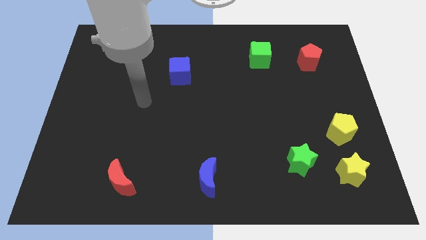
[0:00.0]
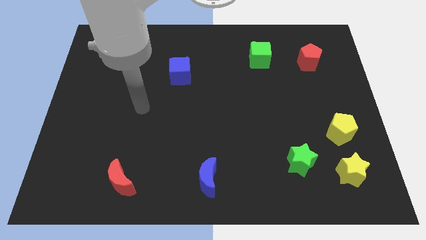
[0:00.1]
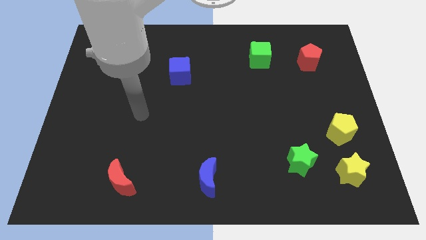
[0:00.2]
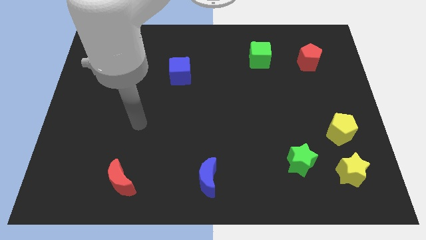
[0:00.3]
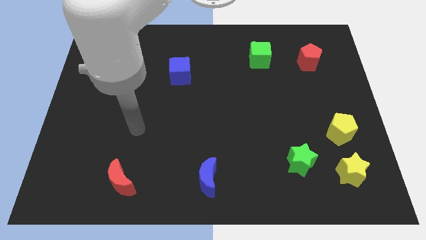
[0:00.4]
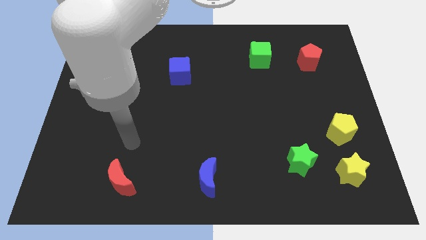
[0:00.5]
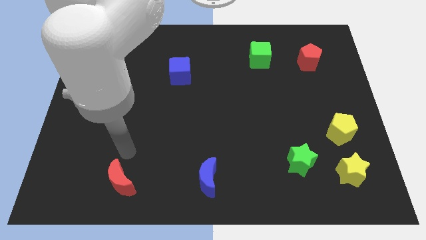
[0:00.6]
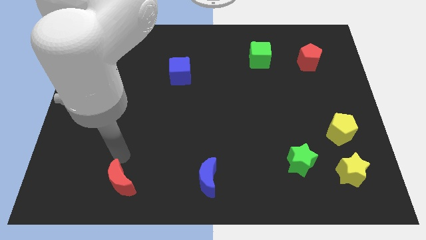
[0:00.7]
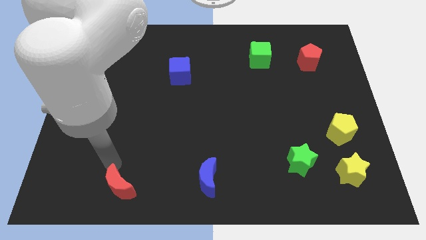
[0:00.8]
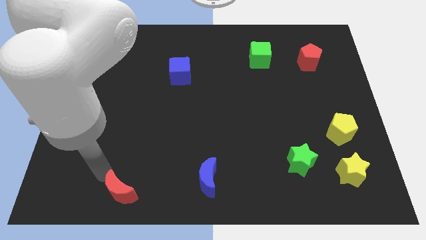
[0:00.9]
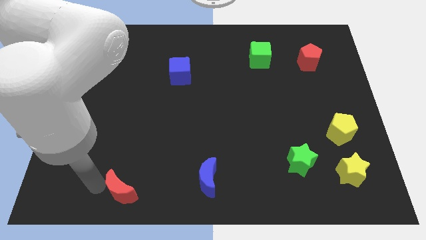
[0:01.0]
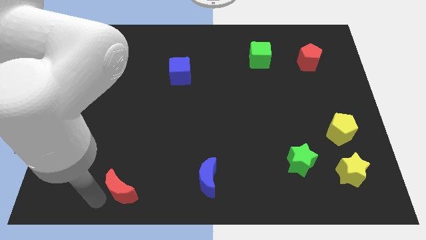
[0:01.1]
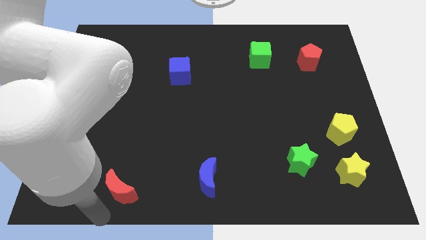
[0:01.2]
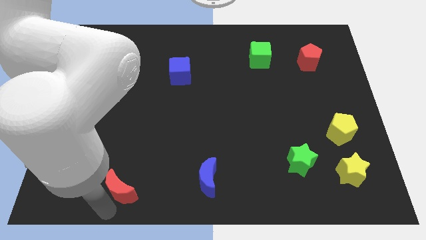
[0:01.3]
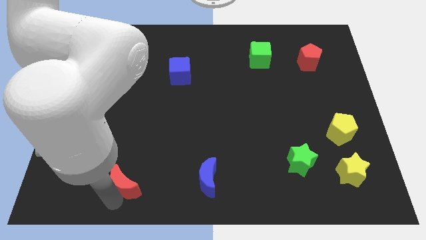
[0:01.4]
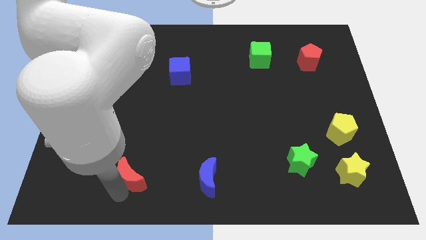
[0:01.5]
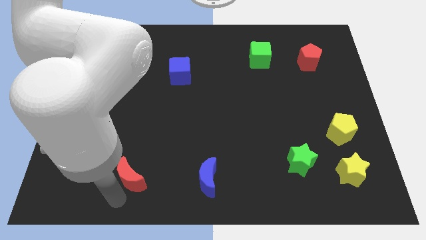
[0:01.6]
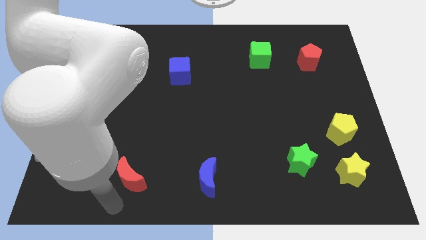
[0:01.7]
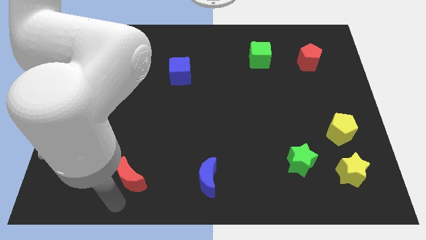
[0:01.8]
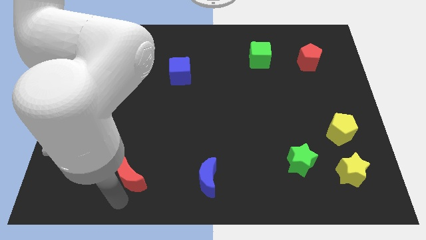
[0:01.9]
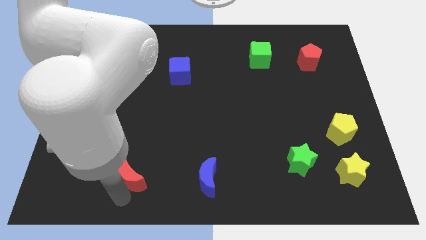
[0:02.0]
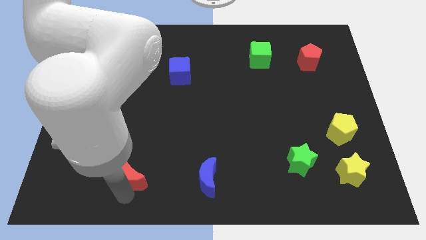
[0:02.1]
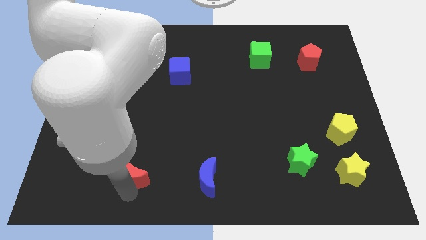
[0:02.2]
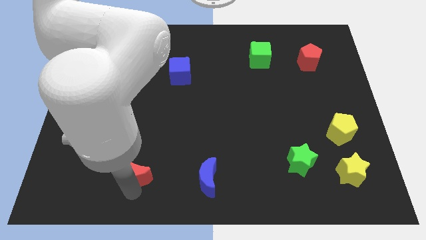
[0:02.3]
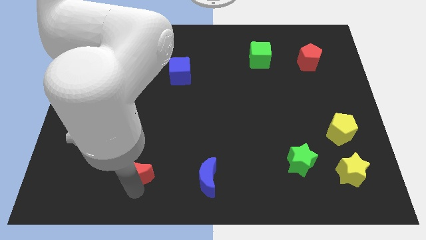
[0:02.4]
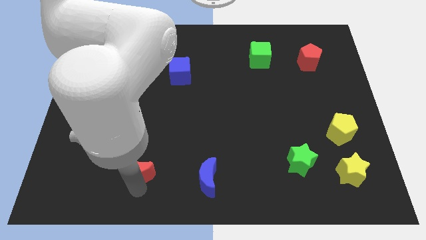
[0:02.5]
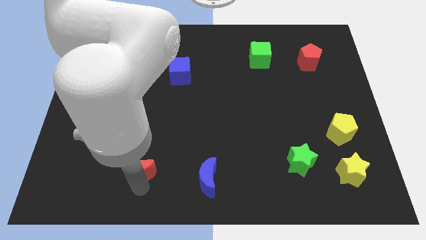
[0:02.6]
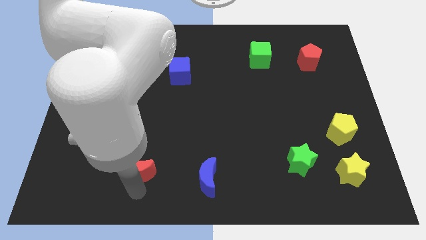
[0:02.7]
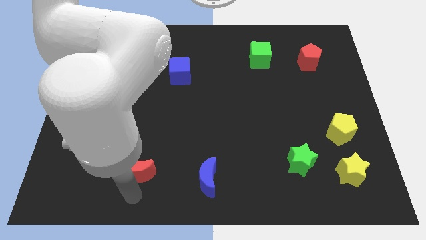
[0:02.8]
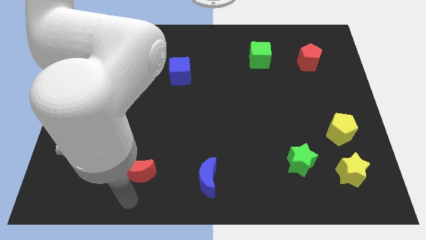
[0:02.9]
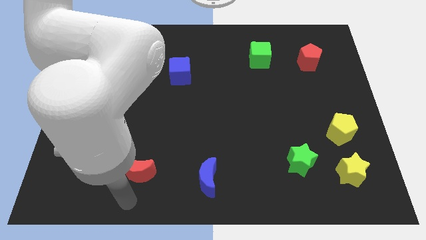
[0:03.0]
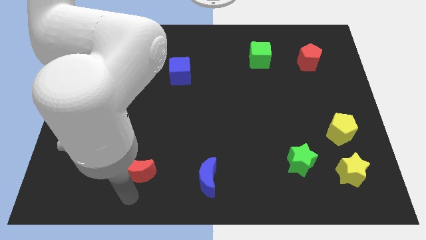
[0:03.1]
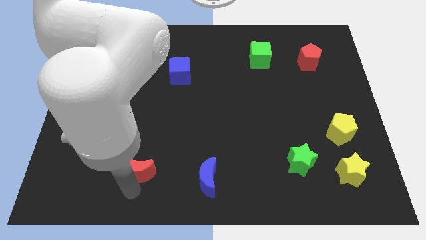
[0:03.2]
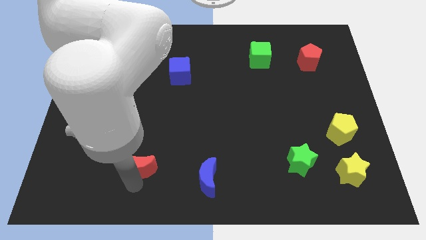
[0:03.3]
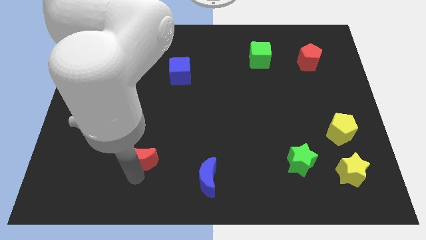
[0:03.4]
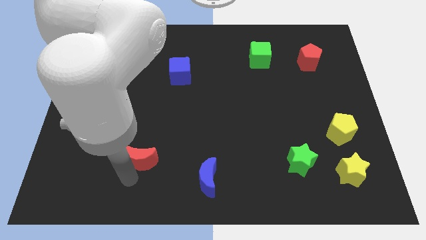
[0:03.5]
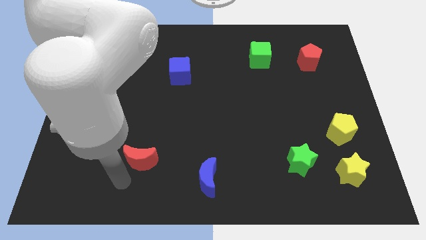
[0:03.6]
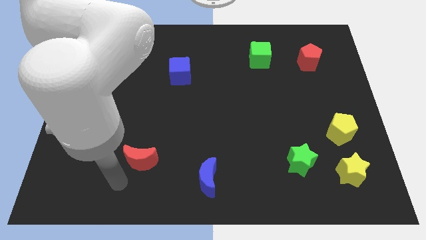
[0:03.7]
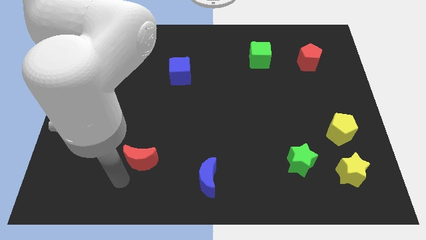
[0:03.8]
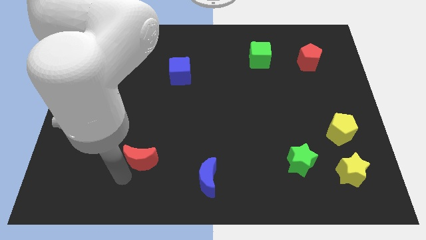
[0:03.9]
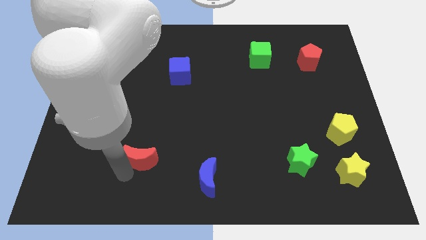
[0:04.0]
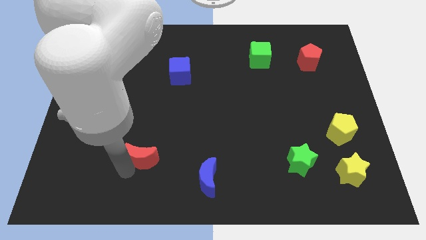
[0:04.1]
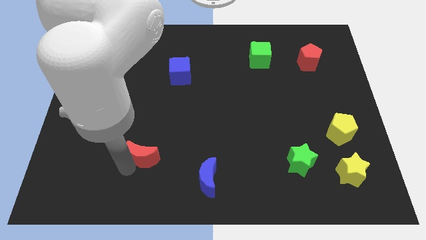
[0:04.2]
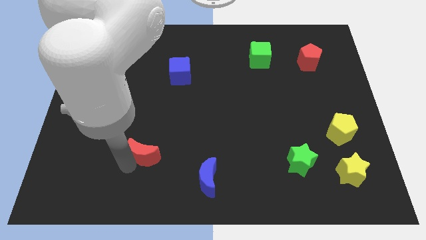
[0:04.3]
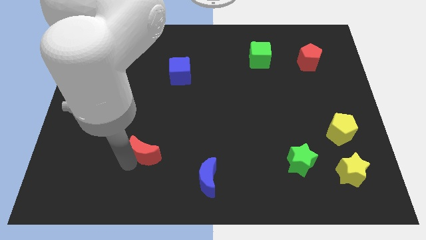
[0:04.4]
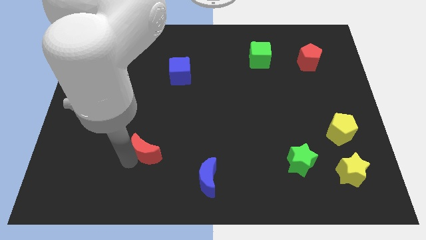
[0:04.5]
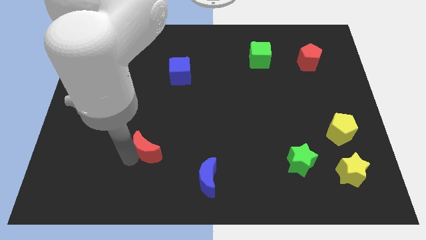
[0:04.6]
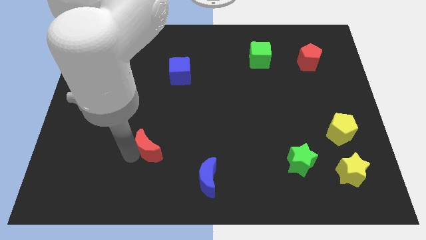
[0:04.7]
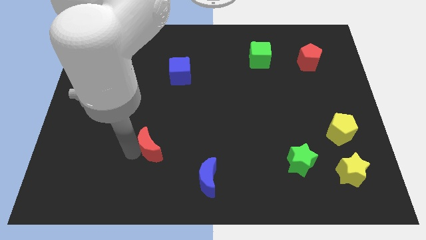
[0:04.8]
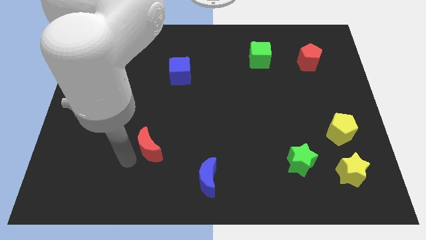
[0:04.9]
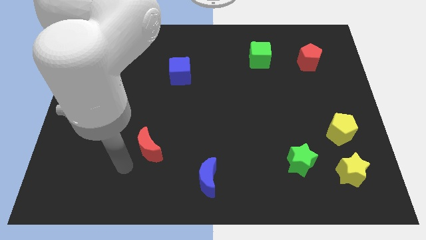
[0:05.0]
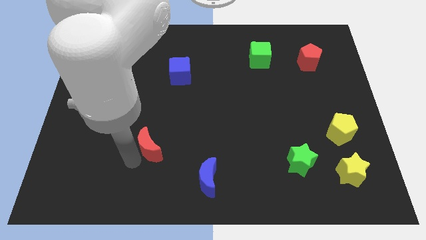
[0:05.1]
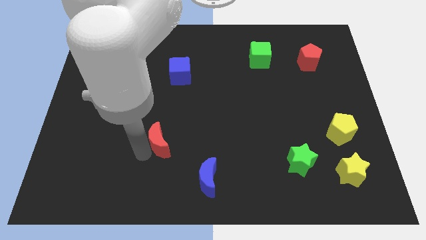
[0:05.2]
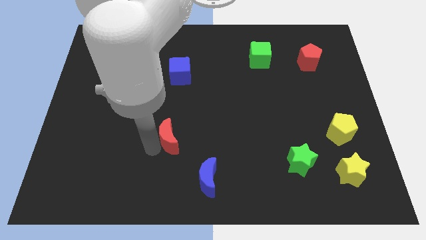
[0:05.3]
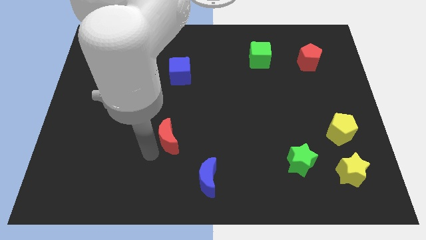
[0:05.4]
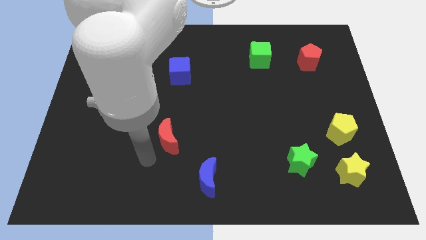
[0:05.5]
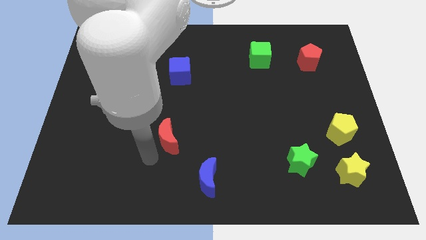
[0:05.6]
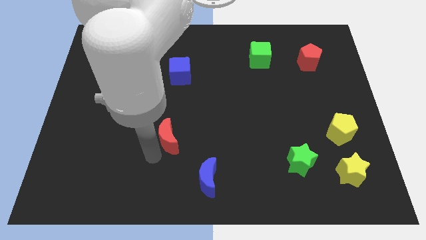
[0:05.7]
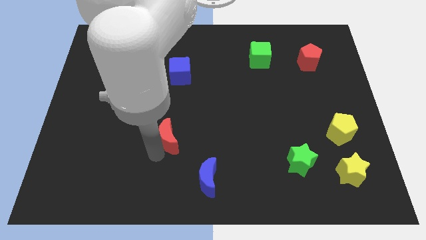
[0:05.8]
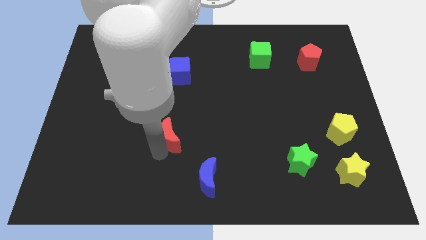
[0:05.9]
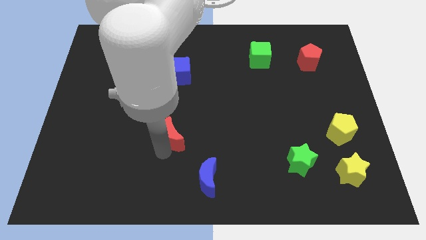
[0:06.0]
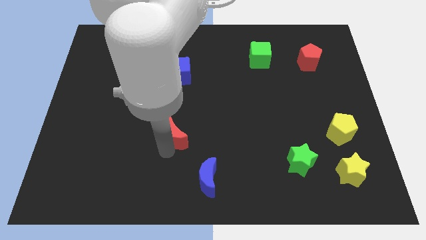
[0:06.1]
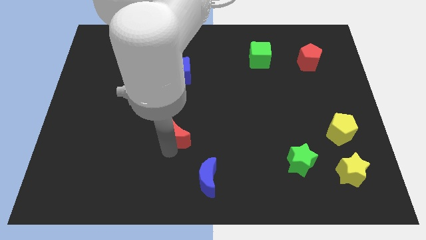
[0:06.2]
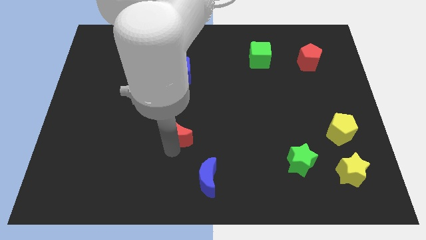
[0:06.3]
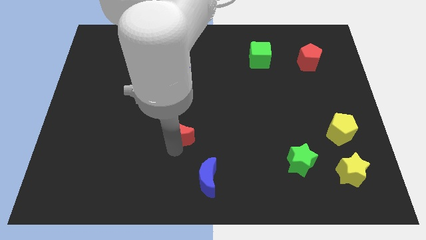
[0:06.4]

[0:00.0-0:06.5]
move the red moon to the middle
